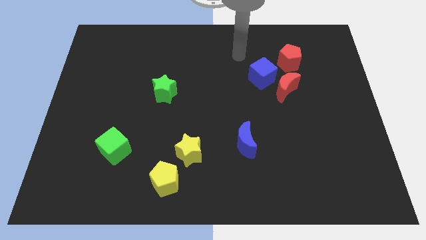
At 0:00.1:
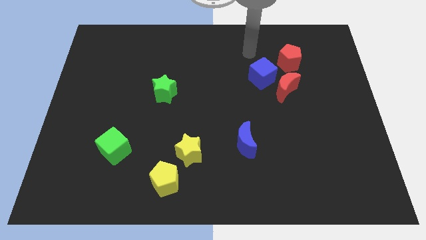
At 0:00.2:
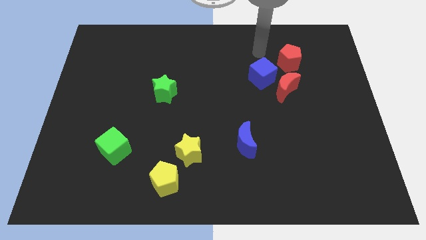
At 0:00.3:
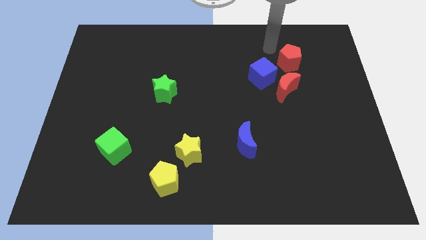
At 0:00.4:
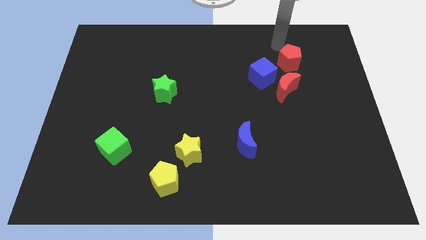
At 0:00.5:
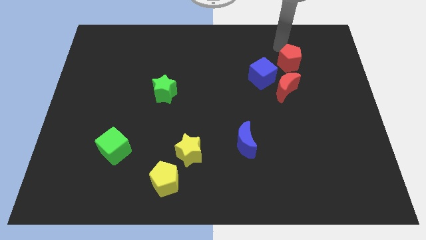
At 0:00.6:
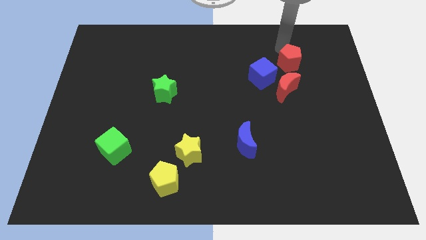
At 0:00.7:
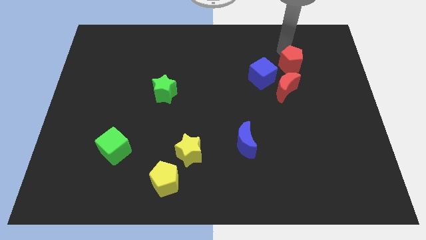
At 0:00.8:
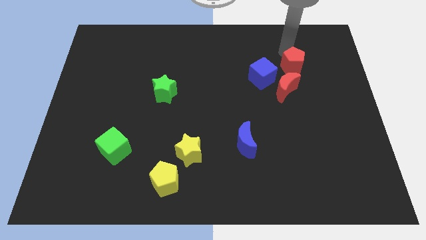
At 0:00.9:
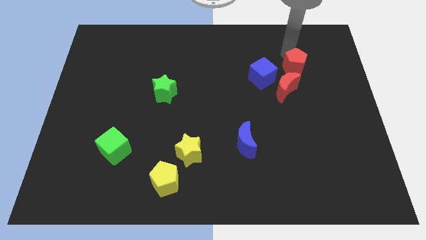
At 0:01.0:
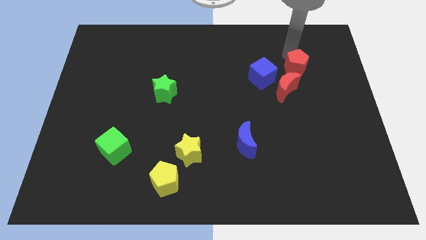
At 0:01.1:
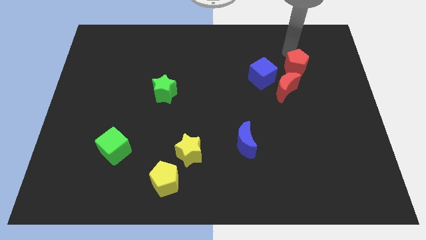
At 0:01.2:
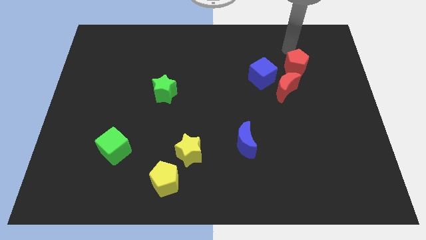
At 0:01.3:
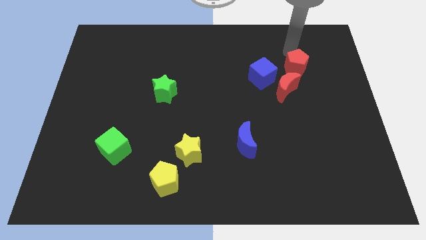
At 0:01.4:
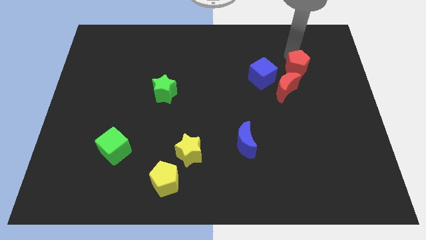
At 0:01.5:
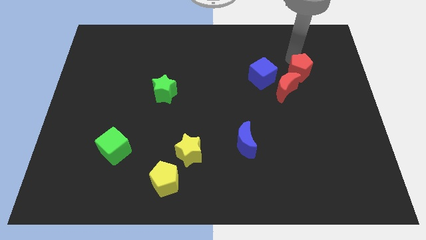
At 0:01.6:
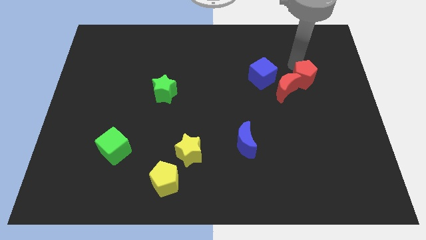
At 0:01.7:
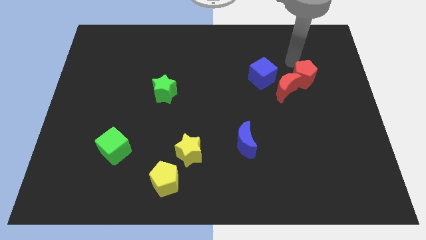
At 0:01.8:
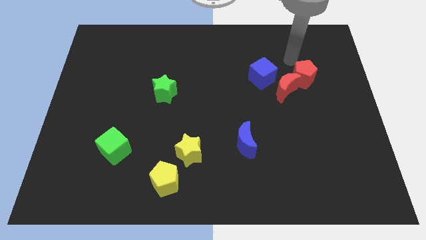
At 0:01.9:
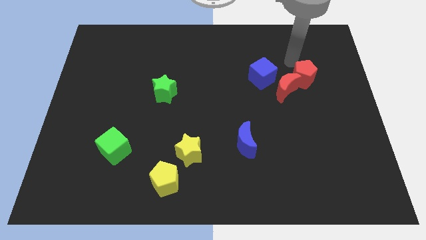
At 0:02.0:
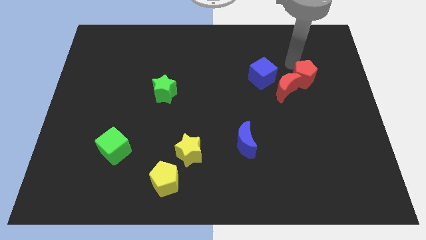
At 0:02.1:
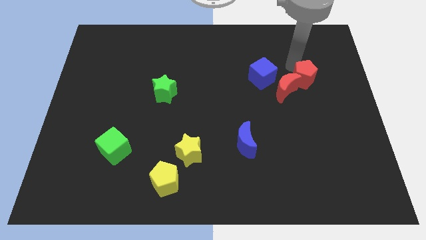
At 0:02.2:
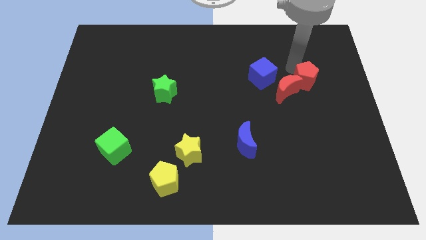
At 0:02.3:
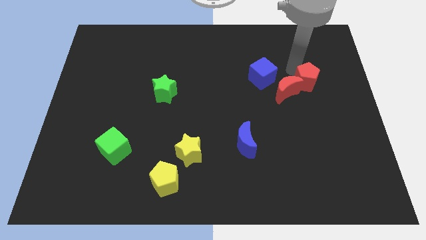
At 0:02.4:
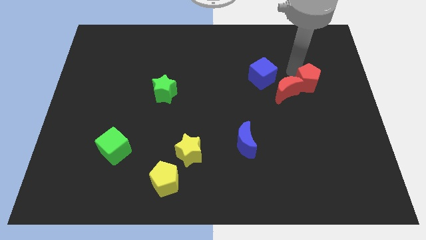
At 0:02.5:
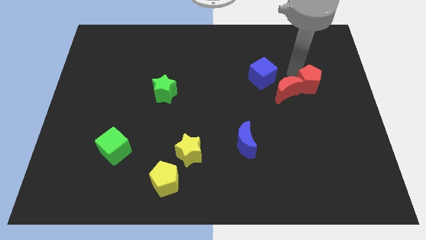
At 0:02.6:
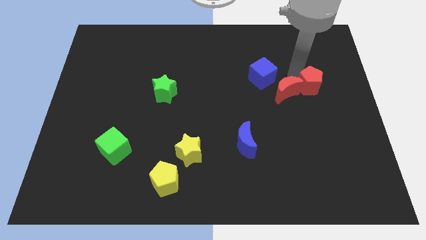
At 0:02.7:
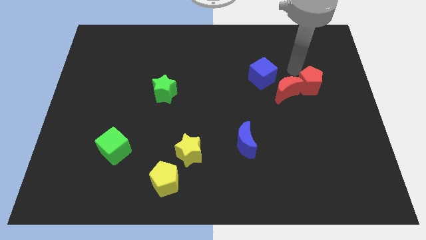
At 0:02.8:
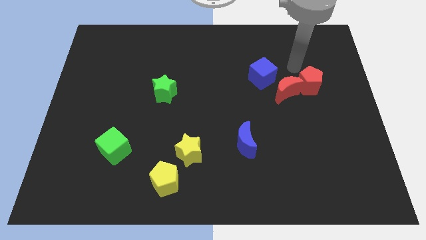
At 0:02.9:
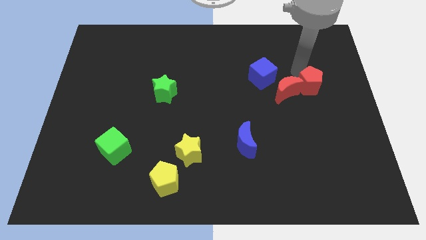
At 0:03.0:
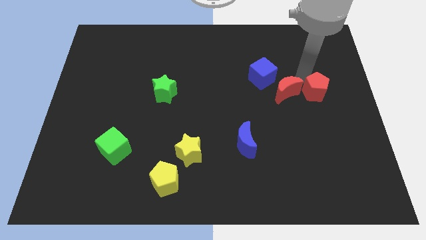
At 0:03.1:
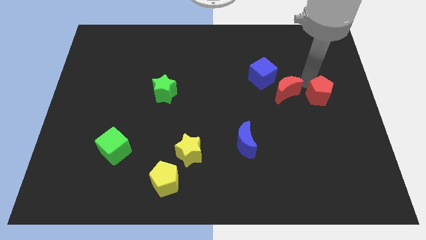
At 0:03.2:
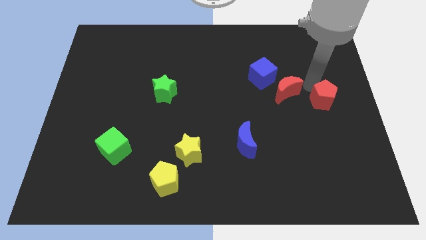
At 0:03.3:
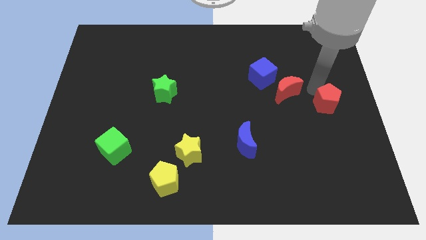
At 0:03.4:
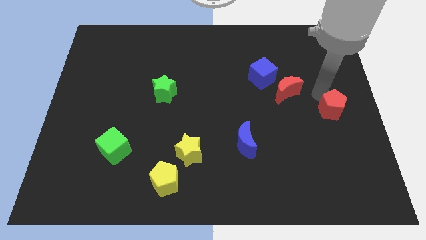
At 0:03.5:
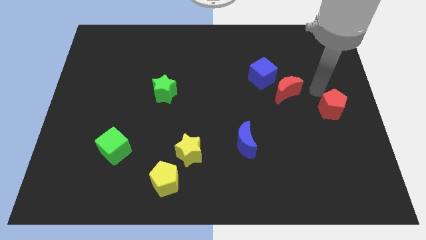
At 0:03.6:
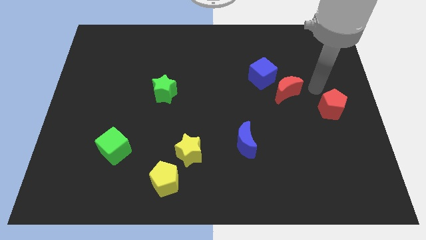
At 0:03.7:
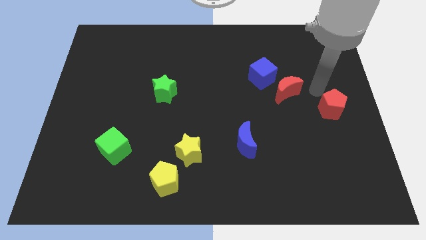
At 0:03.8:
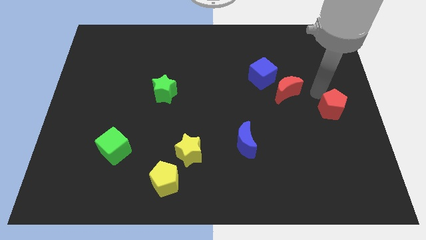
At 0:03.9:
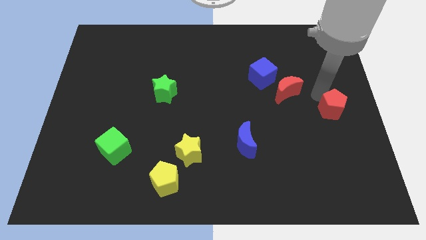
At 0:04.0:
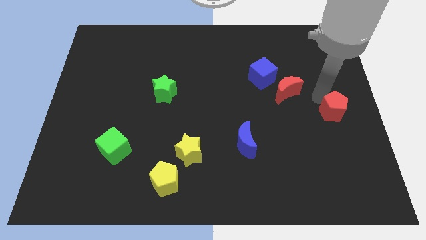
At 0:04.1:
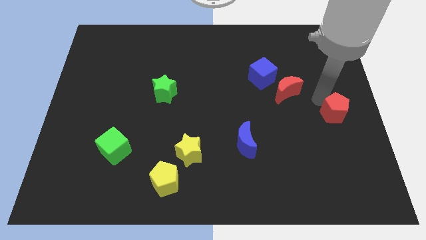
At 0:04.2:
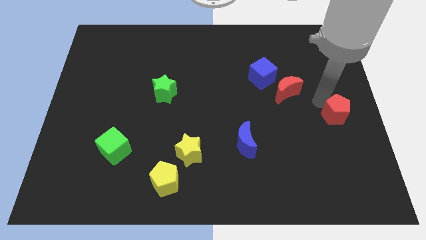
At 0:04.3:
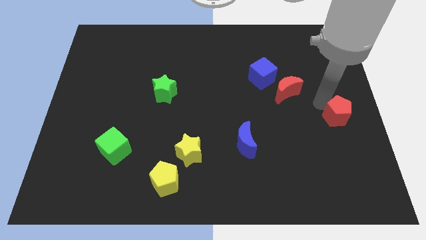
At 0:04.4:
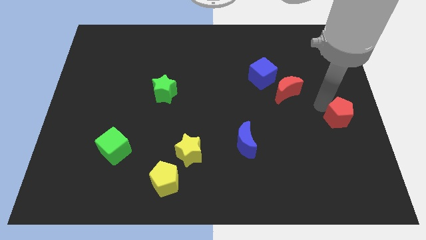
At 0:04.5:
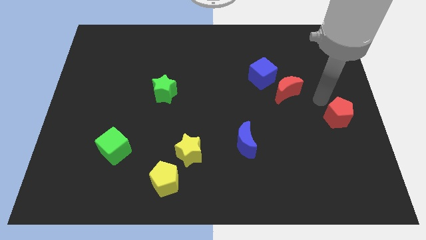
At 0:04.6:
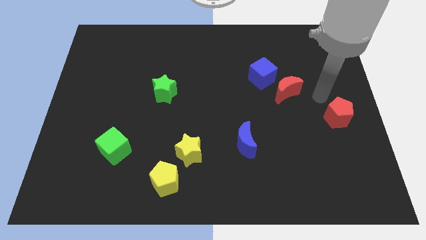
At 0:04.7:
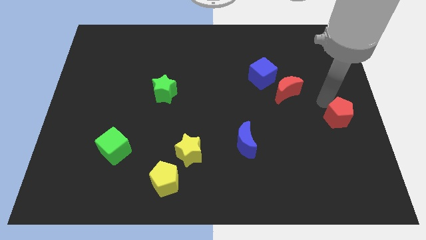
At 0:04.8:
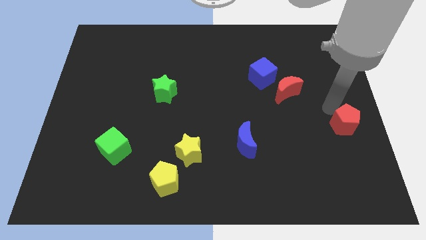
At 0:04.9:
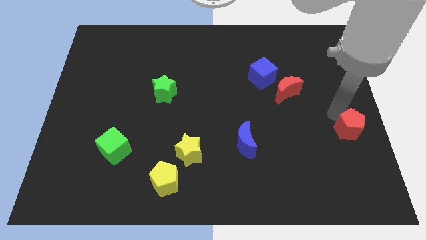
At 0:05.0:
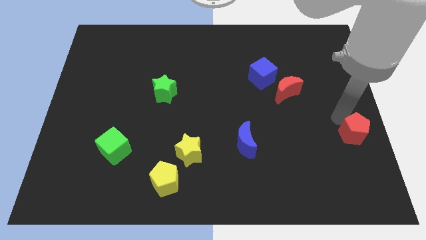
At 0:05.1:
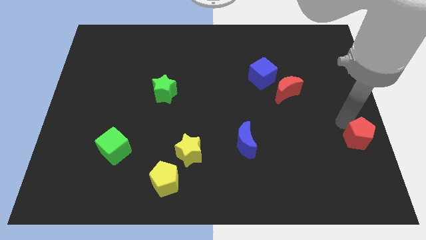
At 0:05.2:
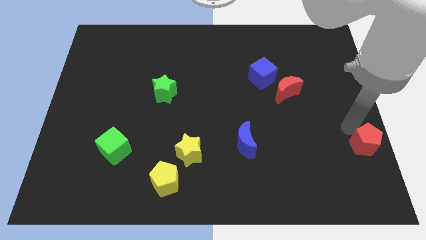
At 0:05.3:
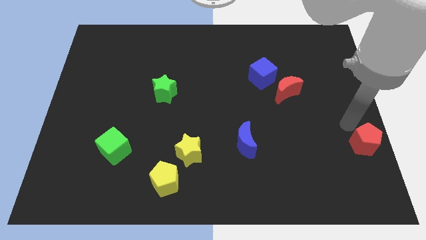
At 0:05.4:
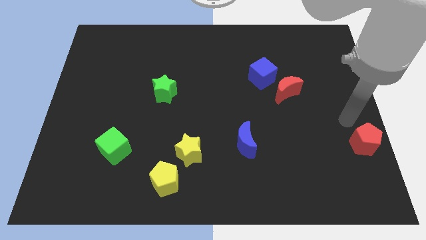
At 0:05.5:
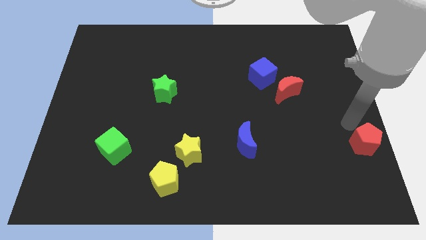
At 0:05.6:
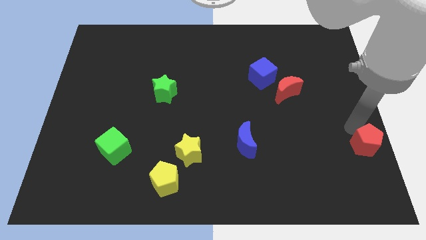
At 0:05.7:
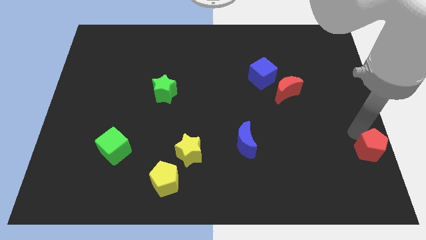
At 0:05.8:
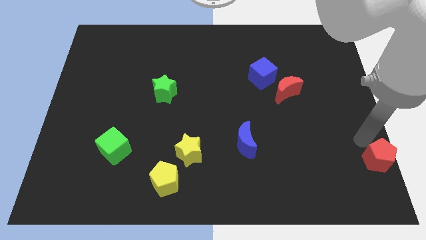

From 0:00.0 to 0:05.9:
put the red pentagon to the bottom right

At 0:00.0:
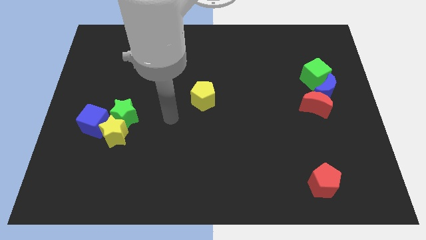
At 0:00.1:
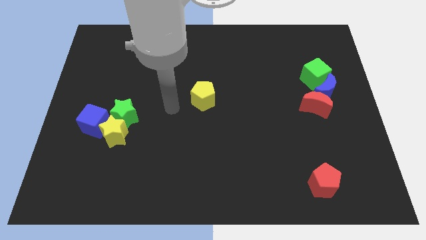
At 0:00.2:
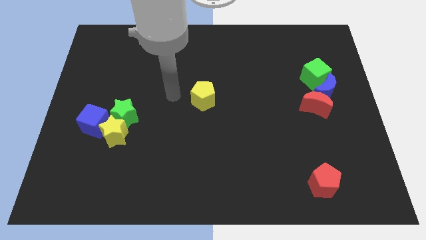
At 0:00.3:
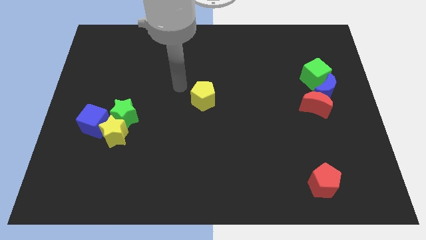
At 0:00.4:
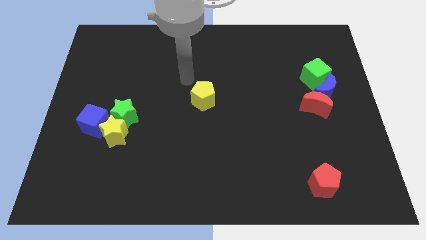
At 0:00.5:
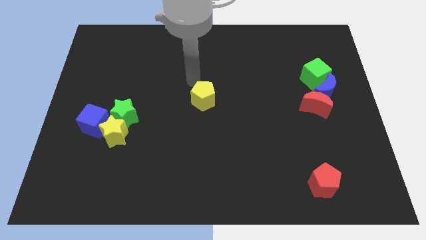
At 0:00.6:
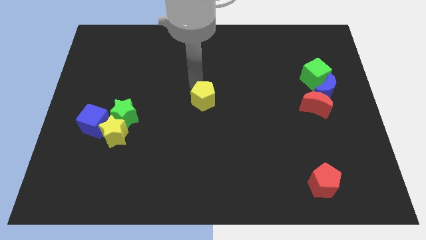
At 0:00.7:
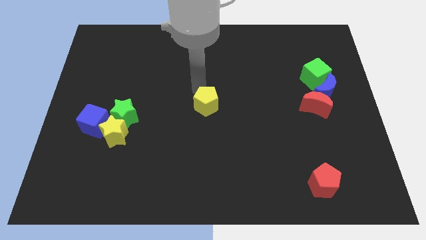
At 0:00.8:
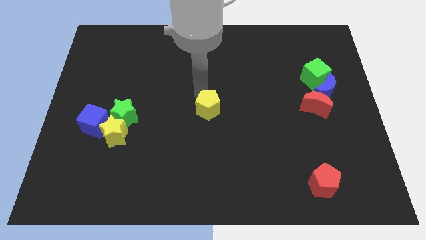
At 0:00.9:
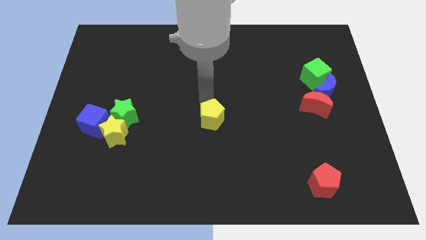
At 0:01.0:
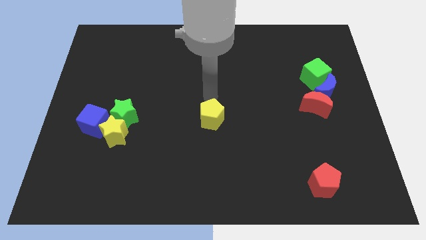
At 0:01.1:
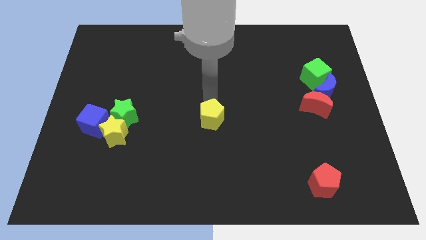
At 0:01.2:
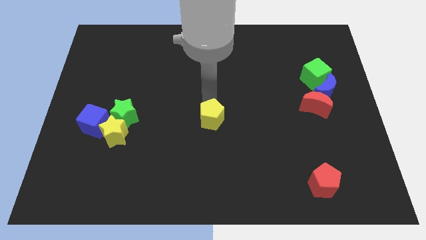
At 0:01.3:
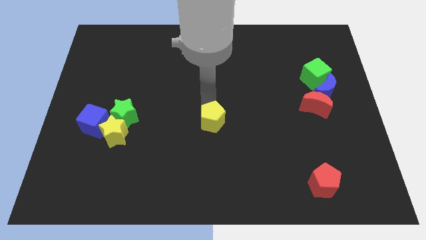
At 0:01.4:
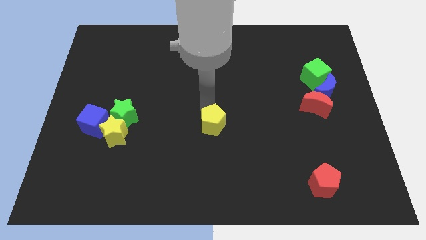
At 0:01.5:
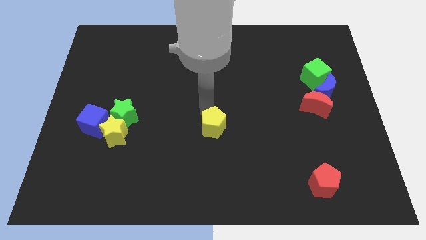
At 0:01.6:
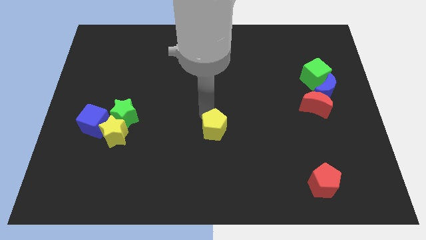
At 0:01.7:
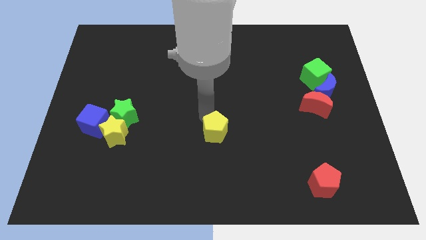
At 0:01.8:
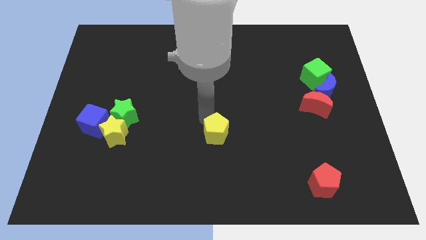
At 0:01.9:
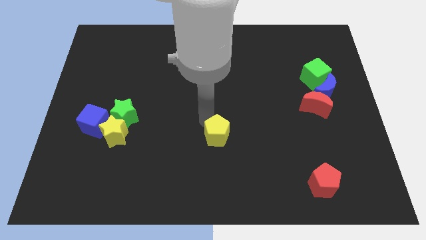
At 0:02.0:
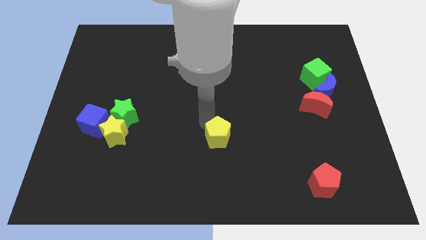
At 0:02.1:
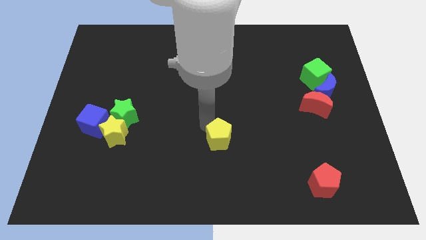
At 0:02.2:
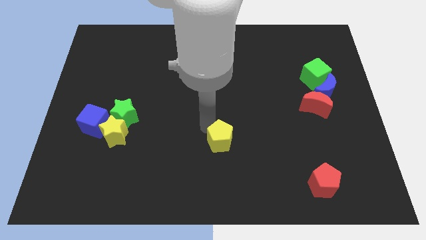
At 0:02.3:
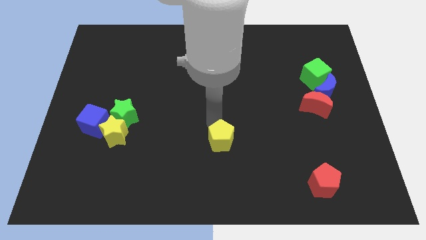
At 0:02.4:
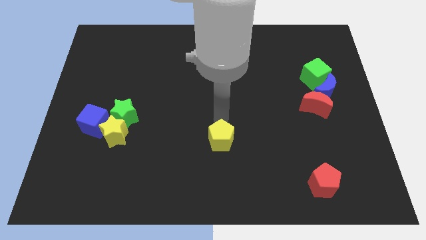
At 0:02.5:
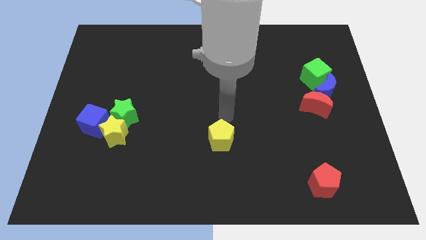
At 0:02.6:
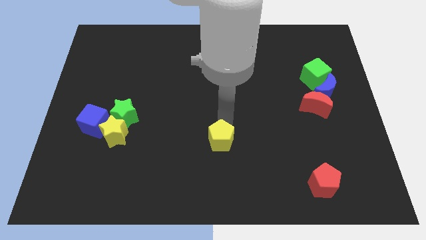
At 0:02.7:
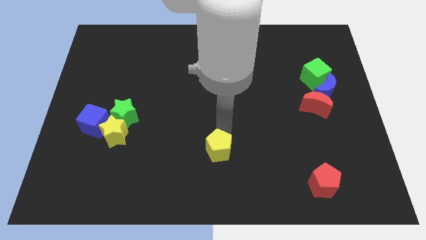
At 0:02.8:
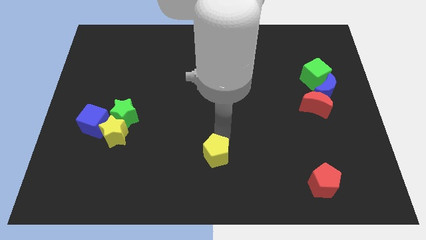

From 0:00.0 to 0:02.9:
push the yellow pentagon to the bottom
